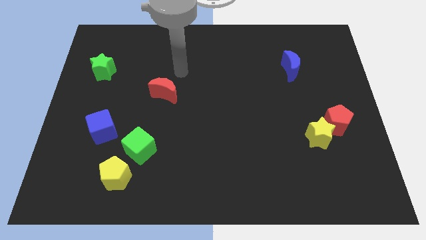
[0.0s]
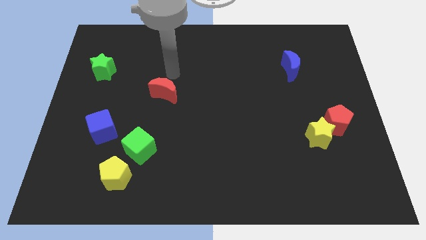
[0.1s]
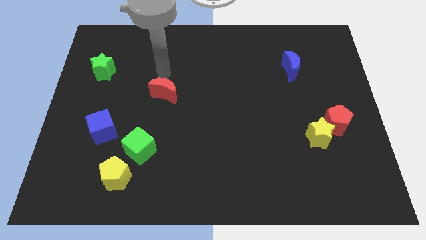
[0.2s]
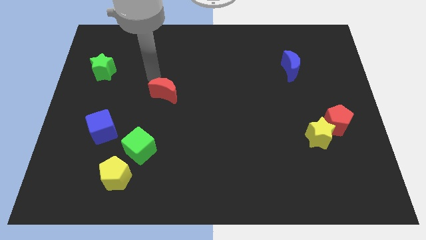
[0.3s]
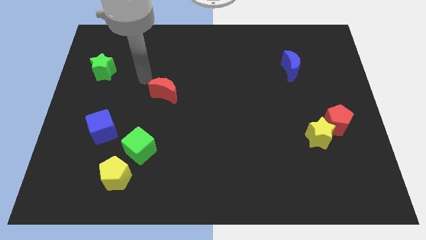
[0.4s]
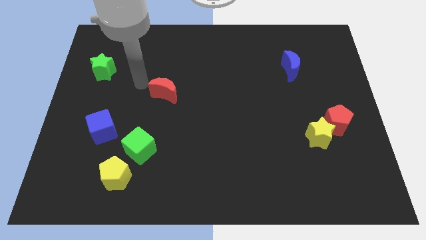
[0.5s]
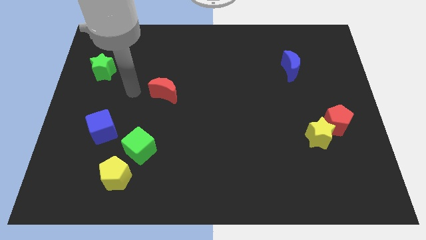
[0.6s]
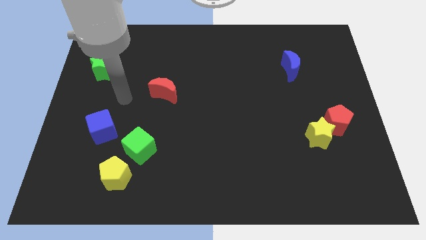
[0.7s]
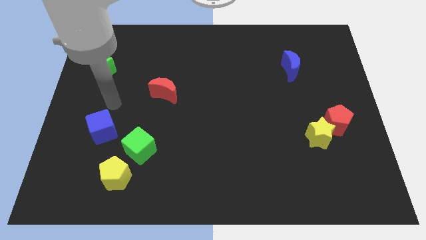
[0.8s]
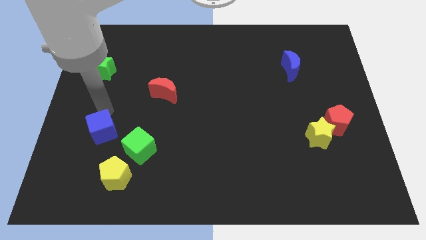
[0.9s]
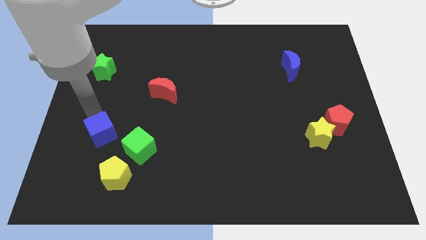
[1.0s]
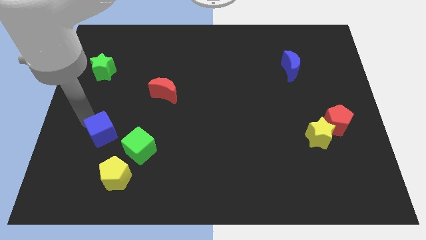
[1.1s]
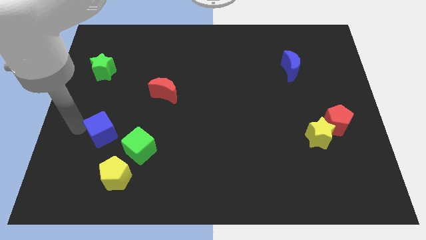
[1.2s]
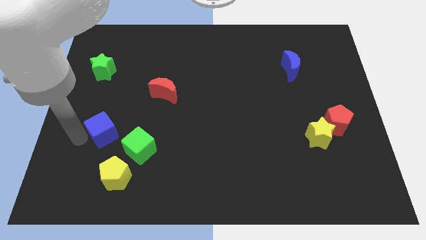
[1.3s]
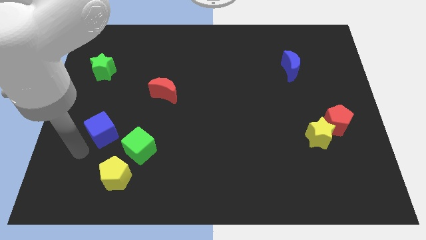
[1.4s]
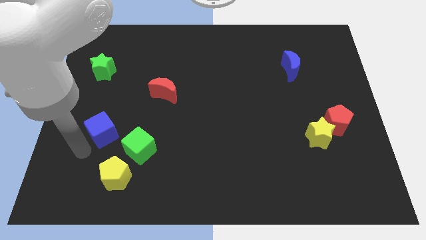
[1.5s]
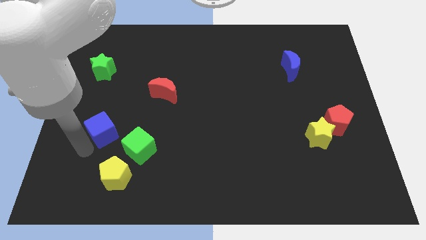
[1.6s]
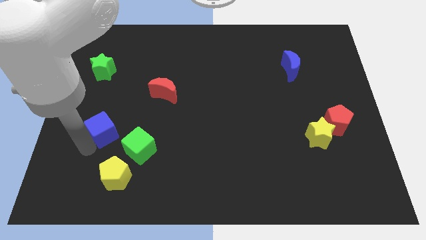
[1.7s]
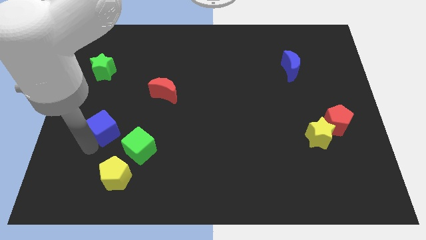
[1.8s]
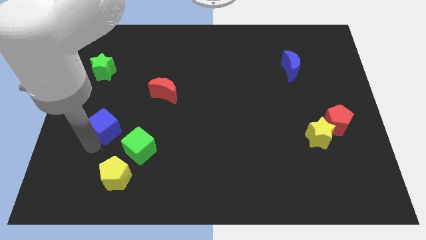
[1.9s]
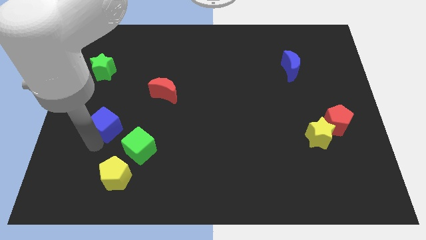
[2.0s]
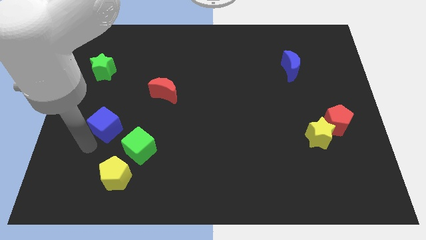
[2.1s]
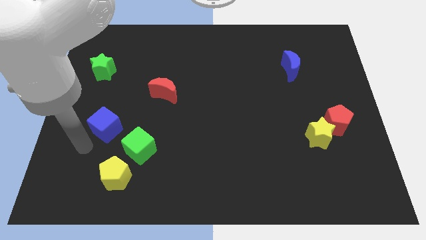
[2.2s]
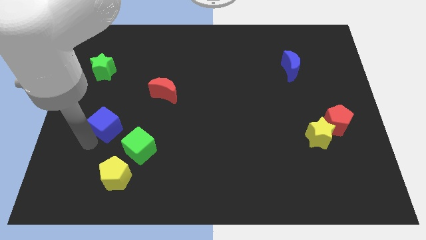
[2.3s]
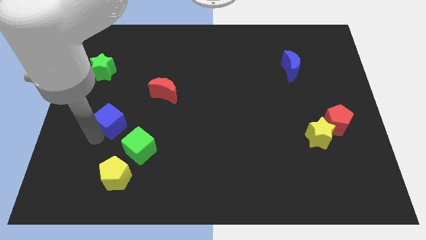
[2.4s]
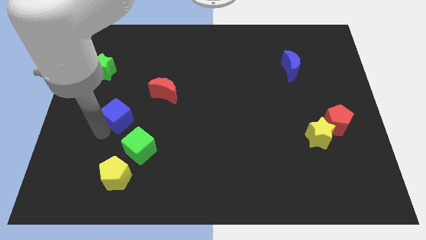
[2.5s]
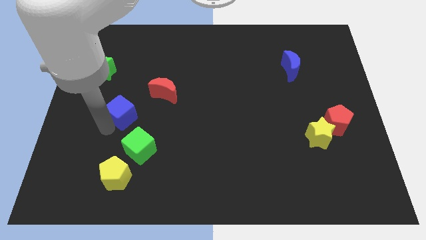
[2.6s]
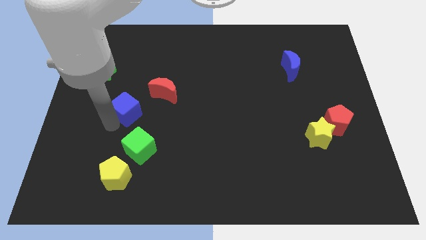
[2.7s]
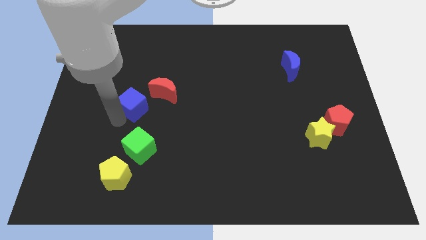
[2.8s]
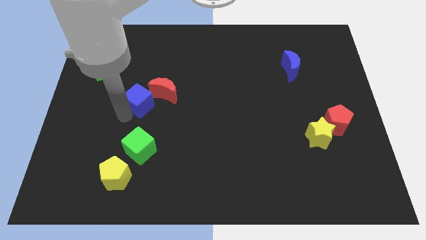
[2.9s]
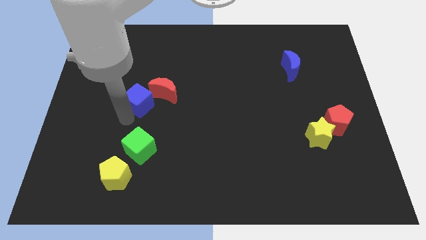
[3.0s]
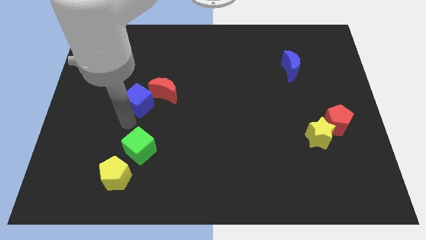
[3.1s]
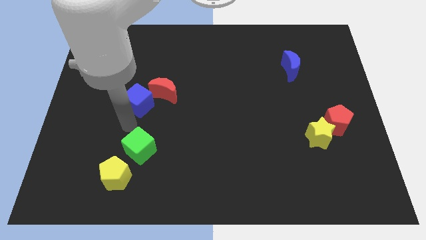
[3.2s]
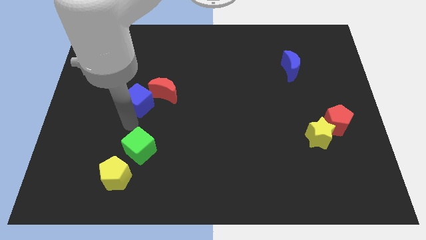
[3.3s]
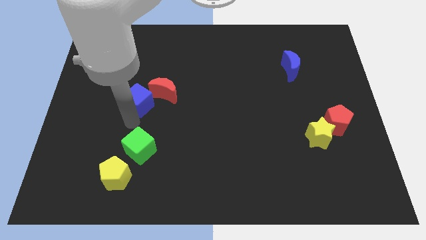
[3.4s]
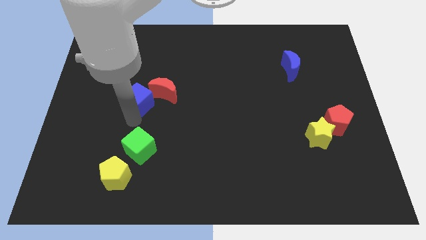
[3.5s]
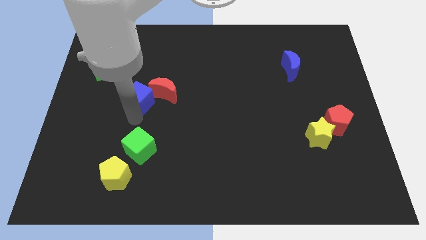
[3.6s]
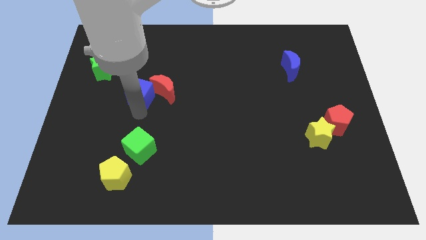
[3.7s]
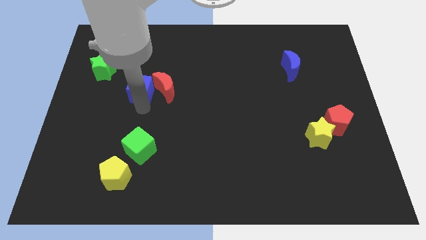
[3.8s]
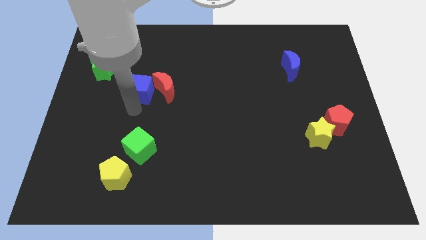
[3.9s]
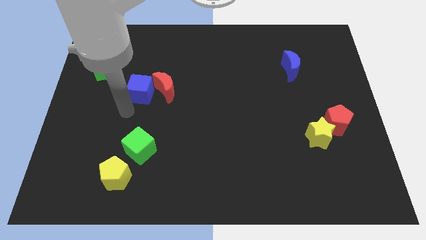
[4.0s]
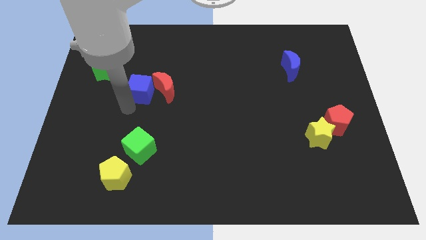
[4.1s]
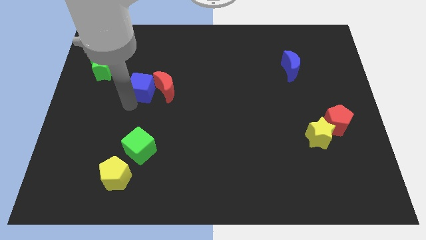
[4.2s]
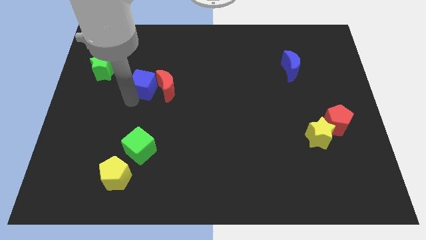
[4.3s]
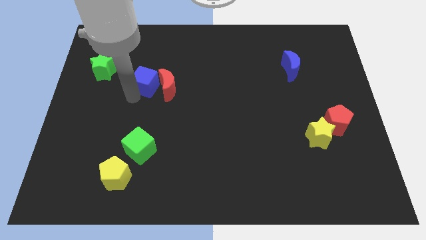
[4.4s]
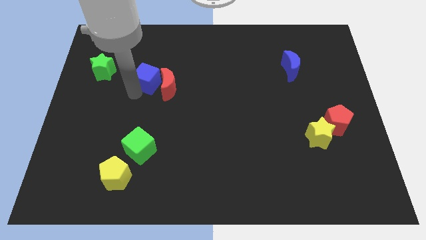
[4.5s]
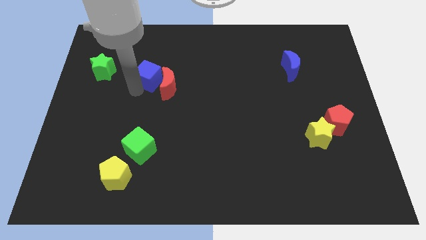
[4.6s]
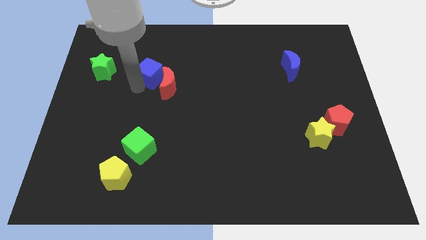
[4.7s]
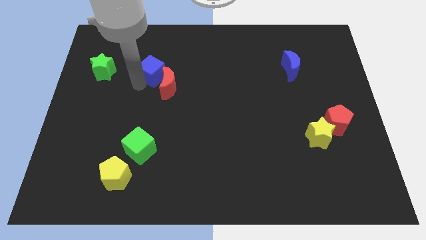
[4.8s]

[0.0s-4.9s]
push the blue cube to the top of the red moon

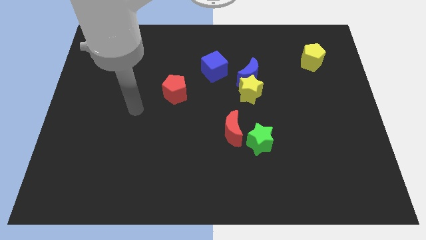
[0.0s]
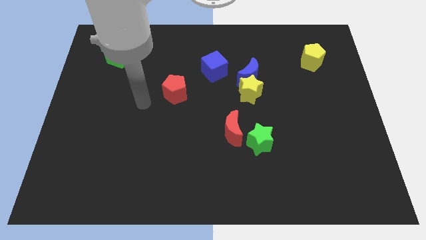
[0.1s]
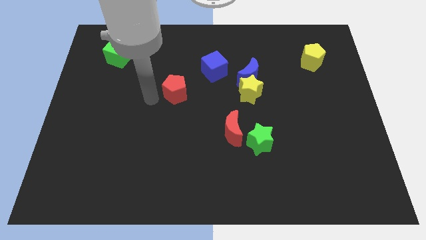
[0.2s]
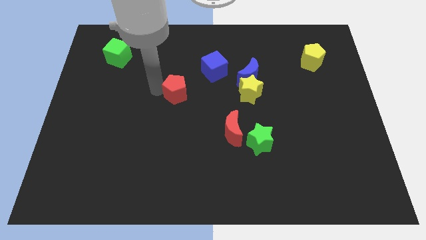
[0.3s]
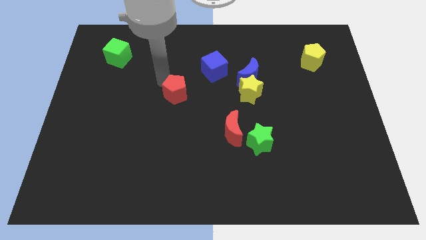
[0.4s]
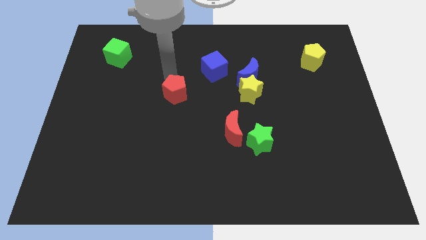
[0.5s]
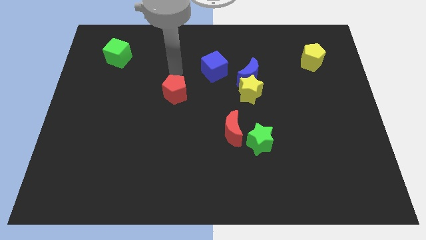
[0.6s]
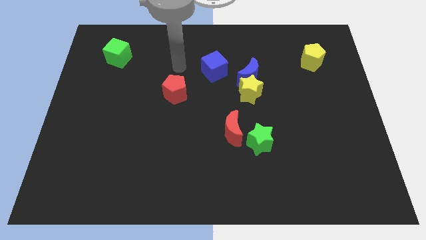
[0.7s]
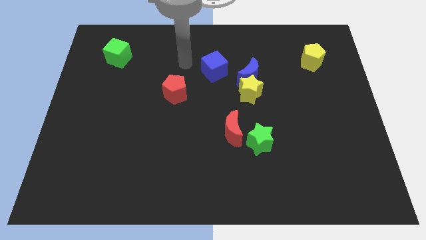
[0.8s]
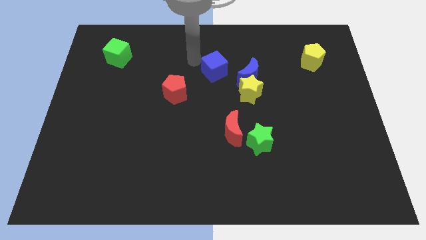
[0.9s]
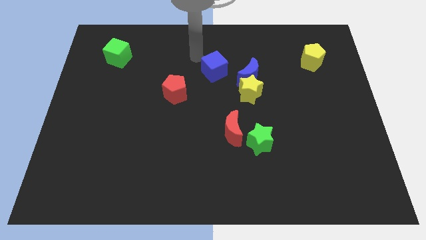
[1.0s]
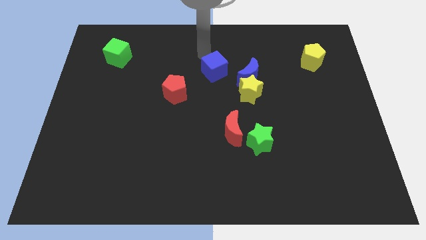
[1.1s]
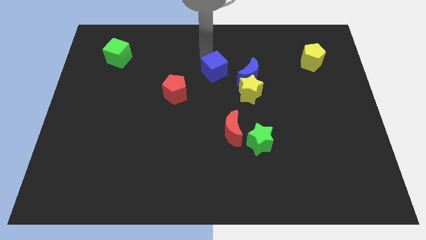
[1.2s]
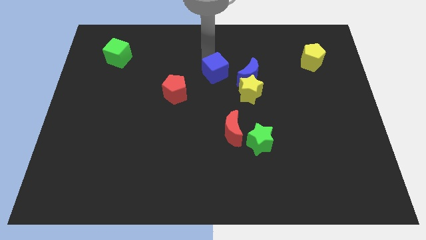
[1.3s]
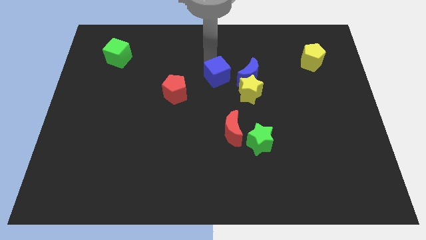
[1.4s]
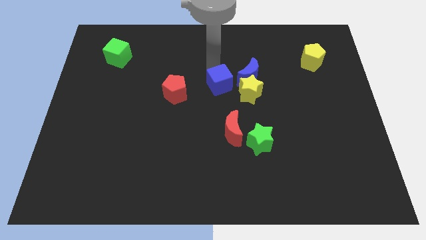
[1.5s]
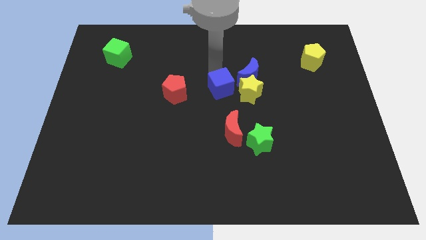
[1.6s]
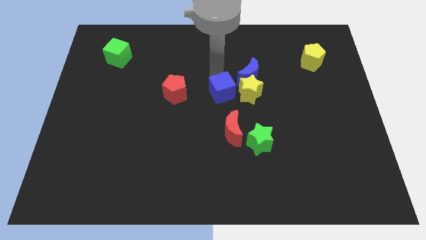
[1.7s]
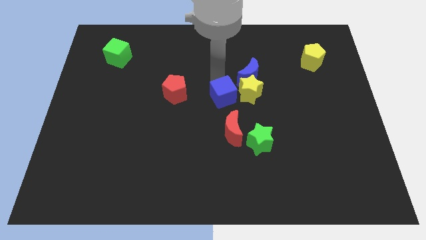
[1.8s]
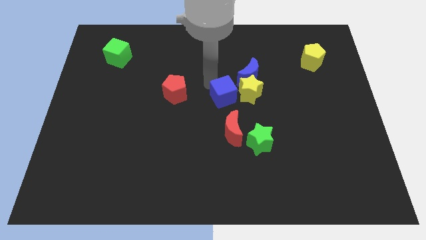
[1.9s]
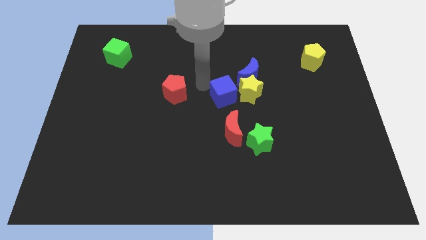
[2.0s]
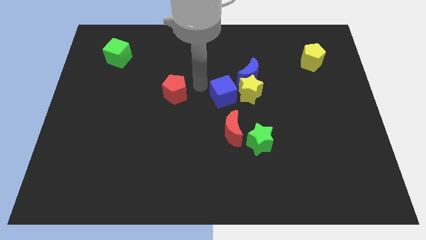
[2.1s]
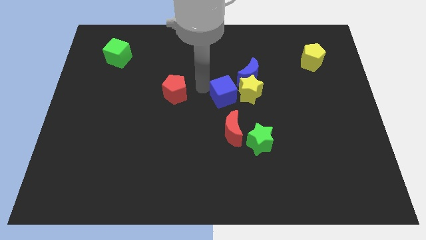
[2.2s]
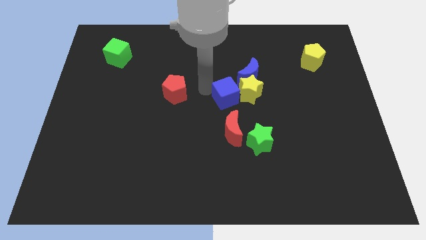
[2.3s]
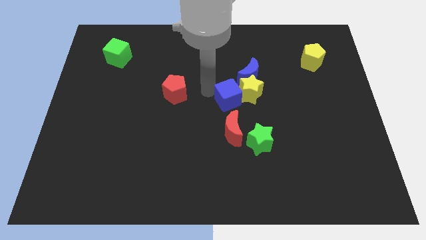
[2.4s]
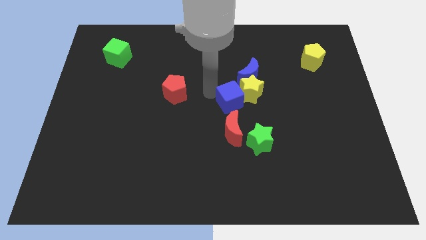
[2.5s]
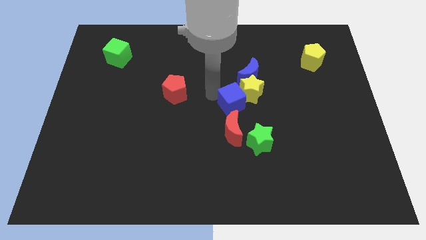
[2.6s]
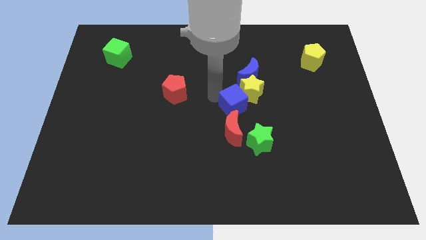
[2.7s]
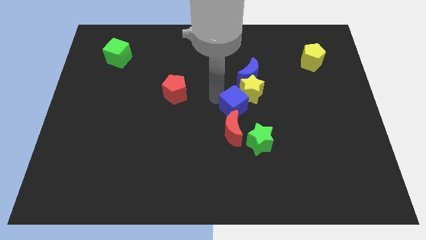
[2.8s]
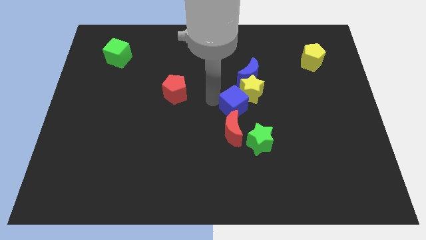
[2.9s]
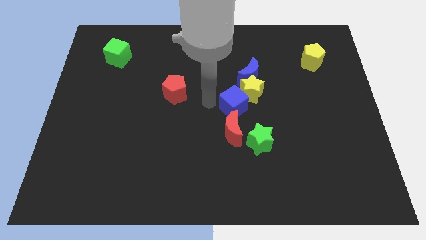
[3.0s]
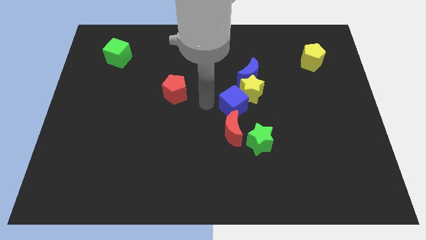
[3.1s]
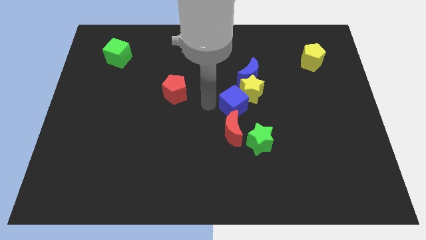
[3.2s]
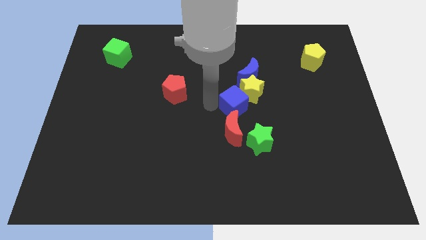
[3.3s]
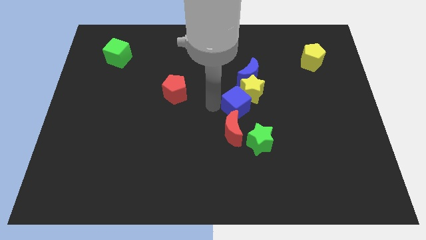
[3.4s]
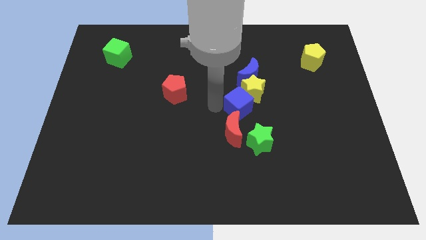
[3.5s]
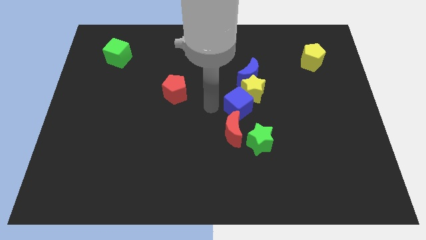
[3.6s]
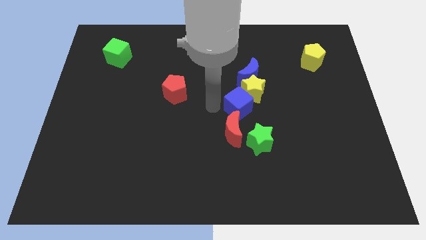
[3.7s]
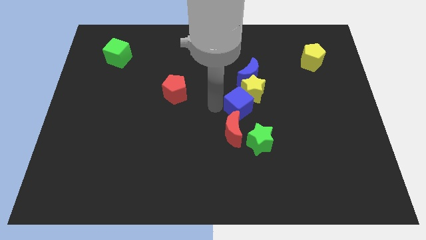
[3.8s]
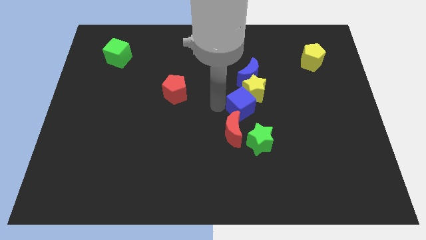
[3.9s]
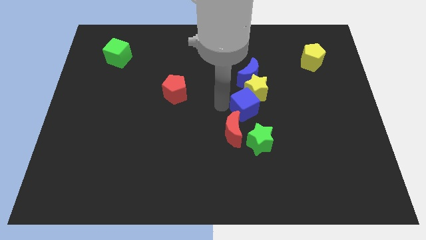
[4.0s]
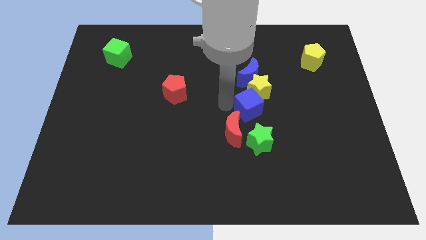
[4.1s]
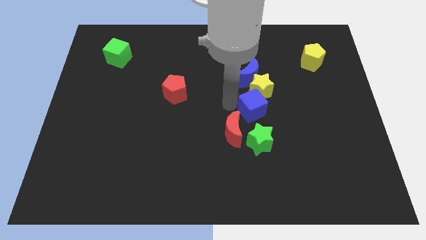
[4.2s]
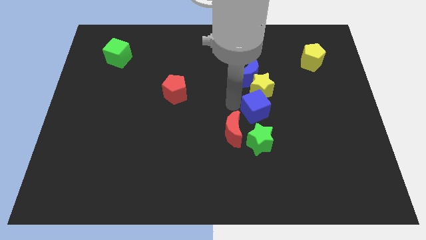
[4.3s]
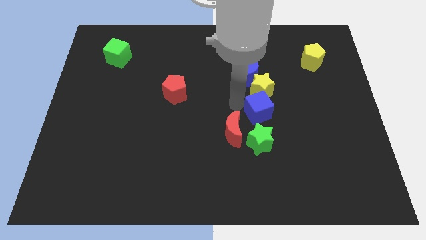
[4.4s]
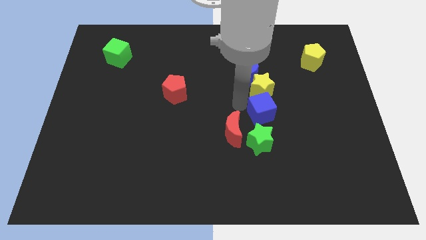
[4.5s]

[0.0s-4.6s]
push the blue cube to the bottom right side of the yellow star
